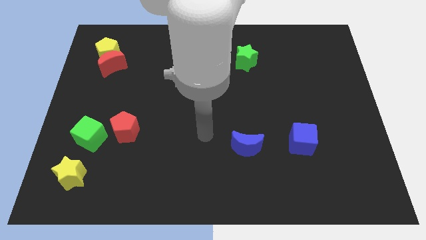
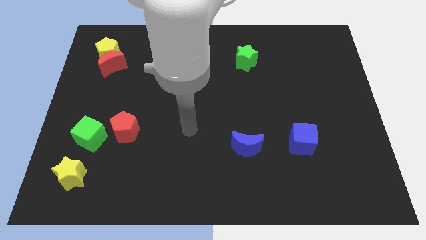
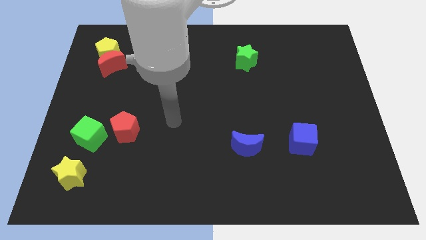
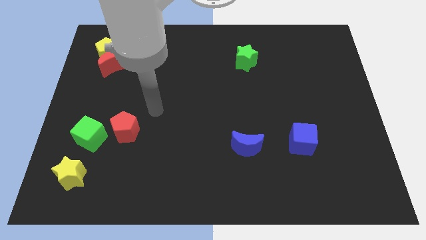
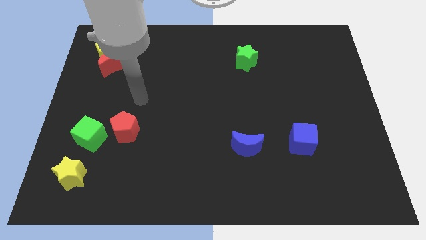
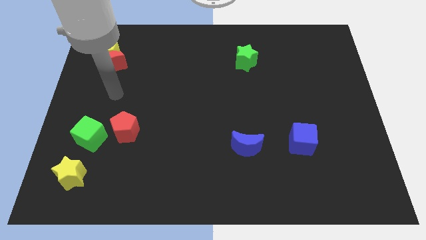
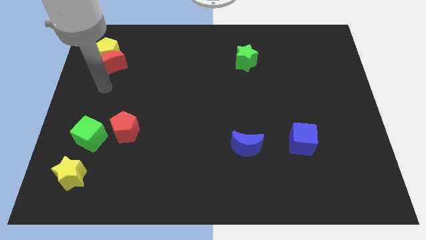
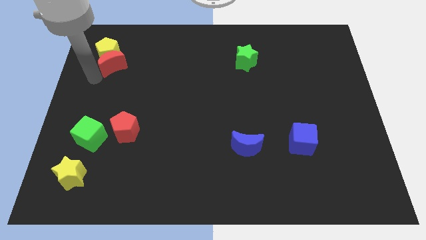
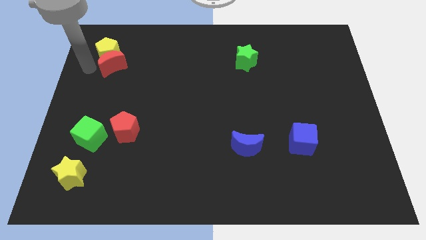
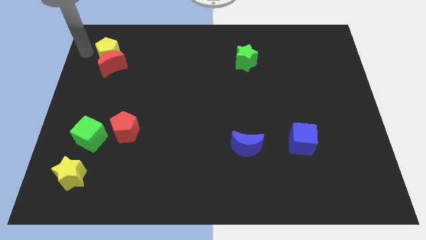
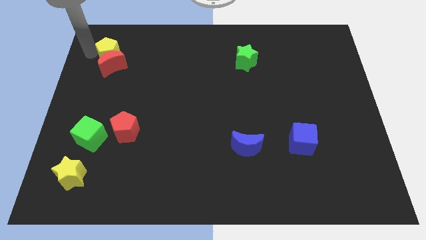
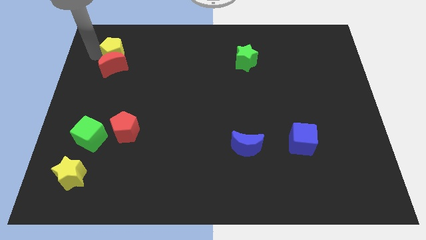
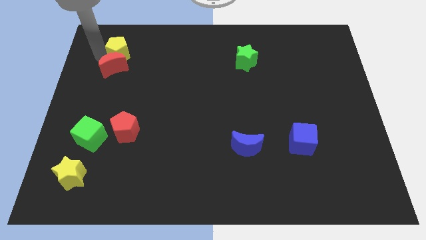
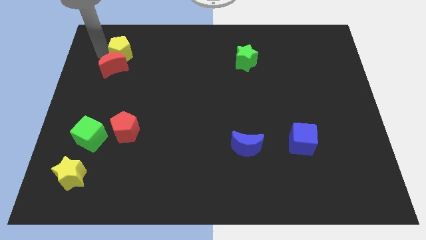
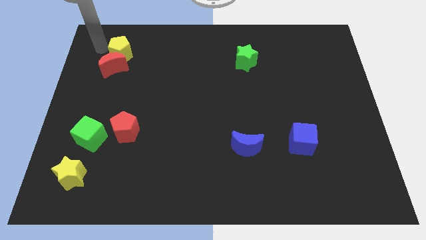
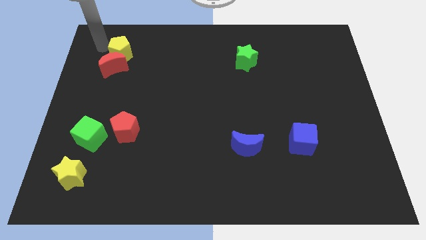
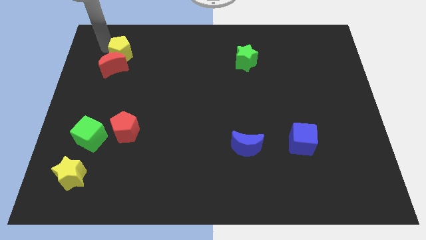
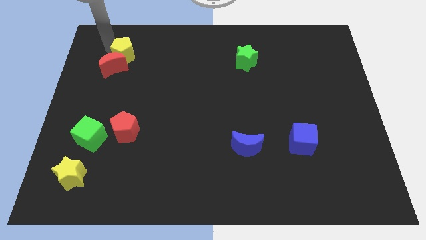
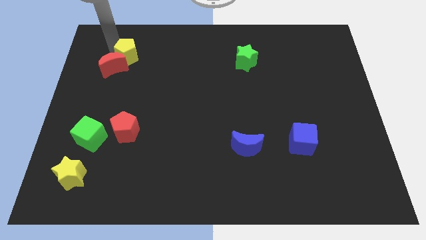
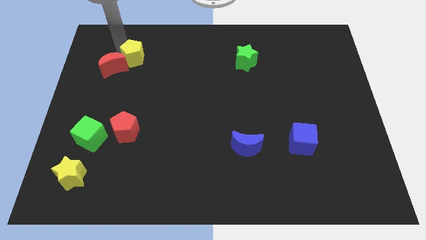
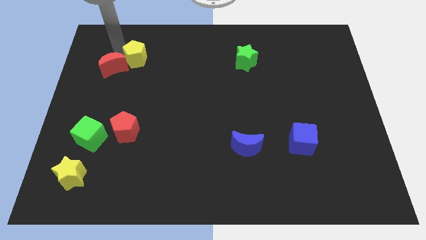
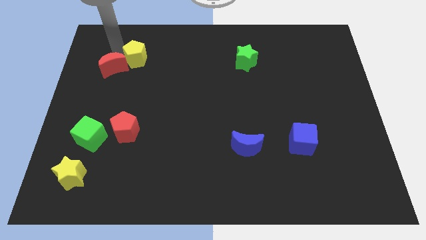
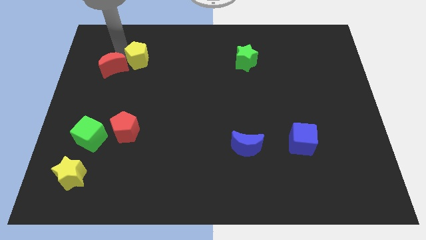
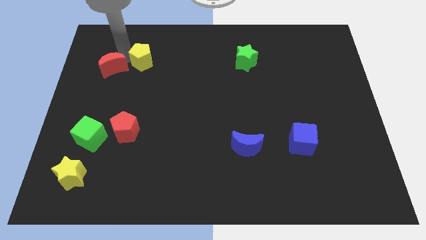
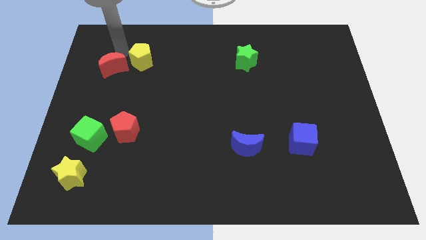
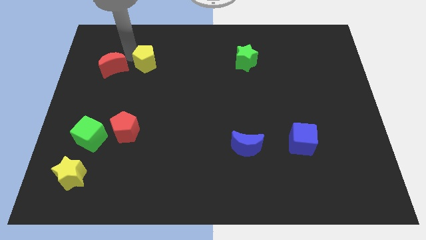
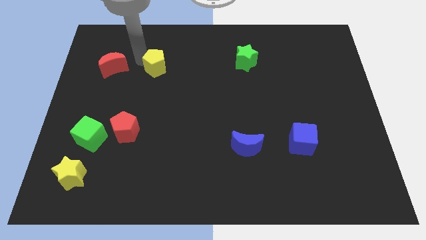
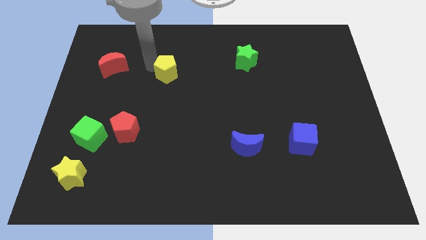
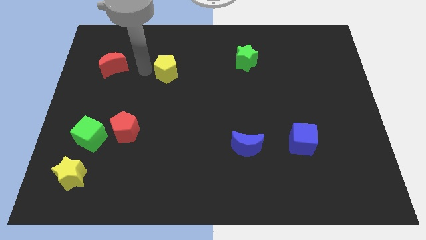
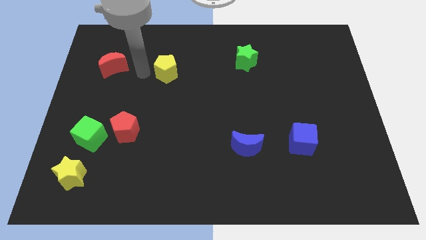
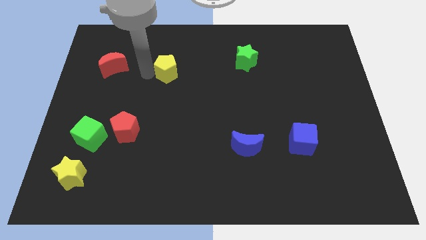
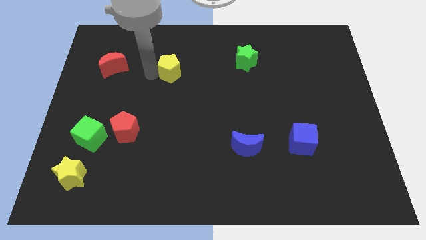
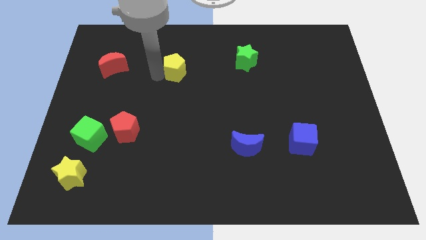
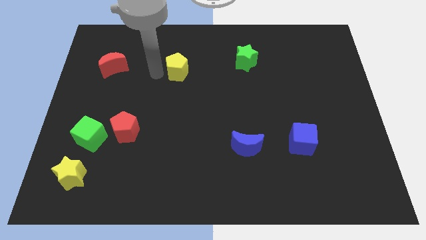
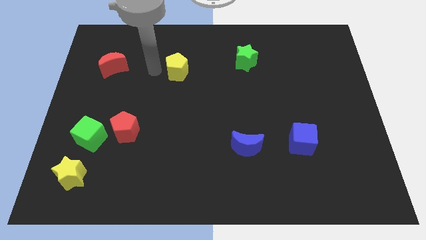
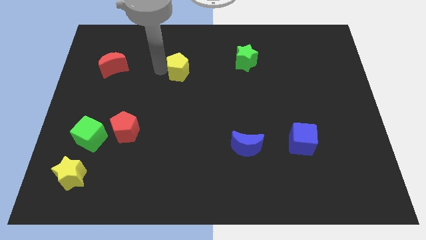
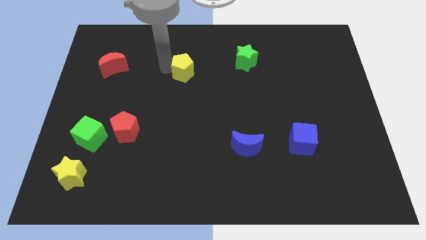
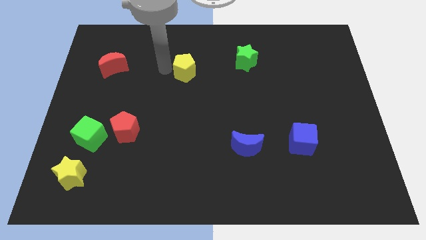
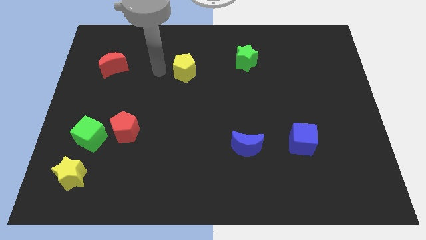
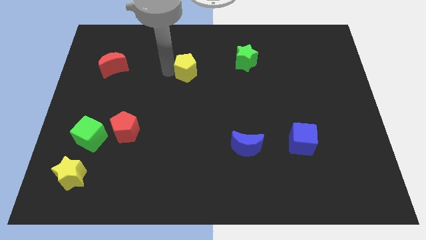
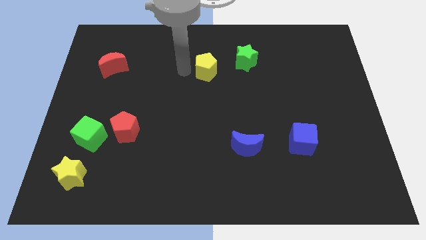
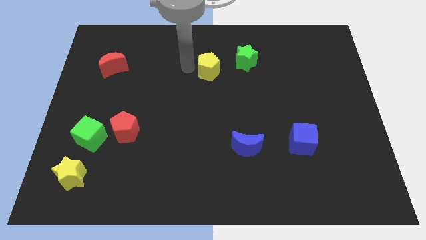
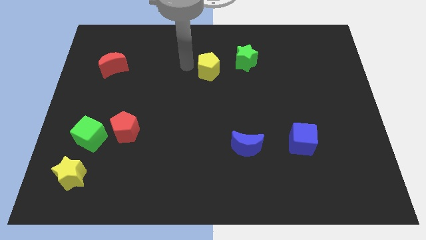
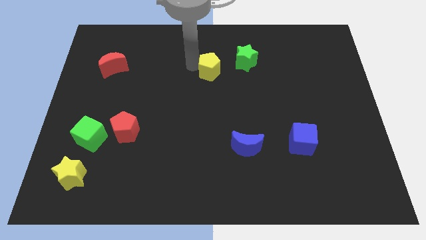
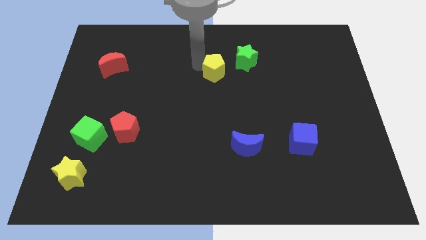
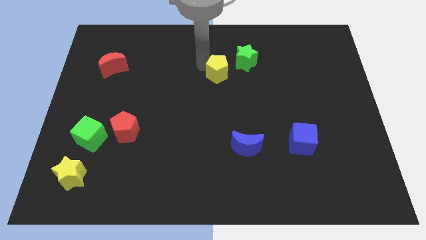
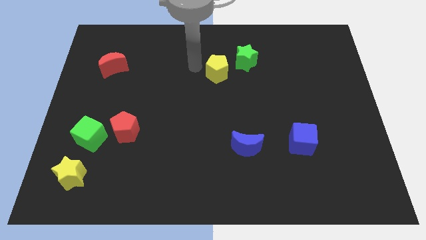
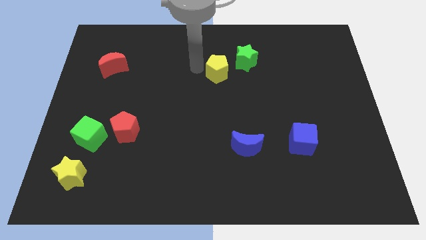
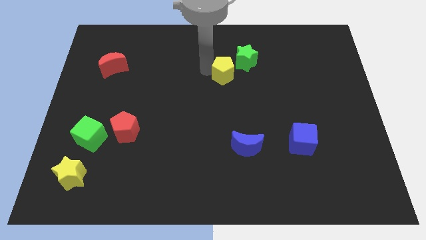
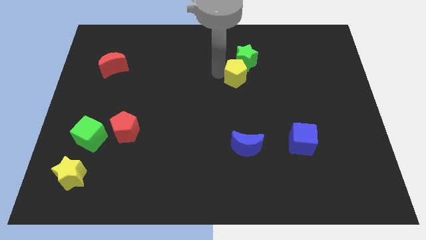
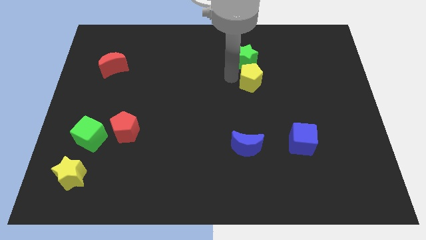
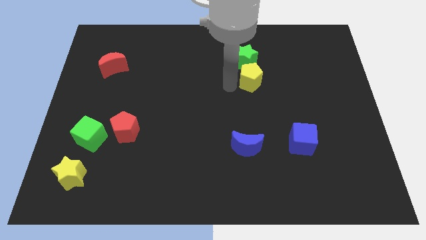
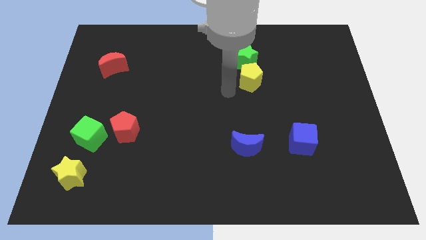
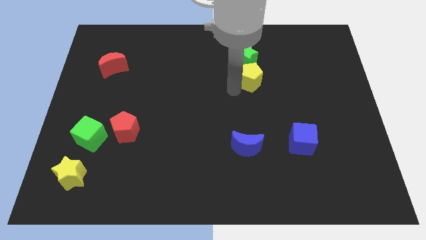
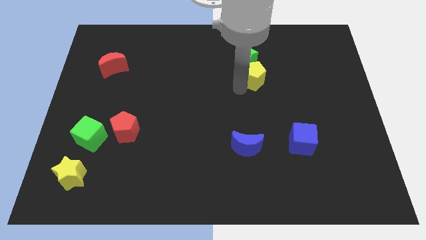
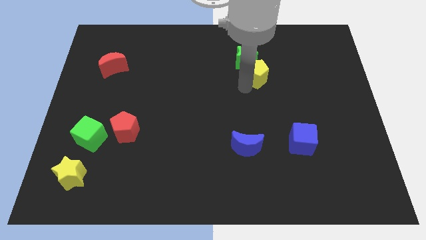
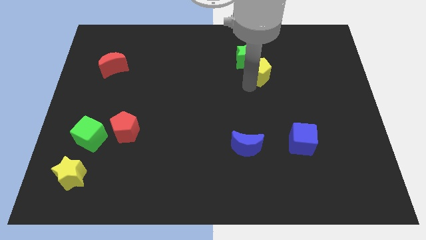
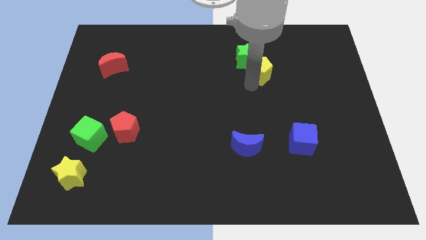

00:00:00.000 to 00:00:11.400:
put the yellow pentagon to the right of the green star

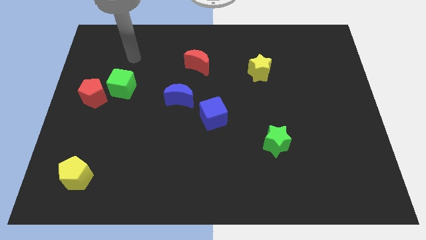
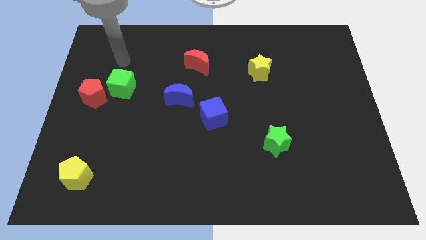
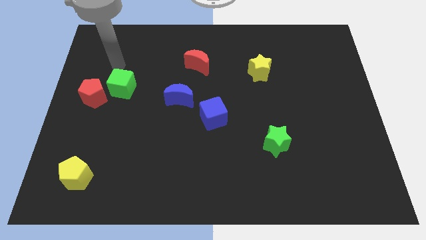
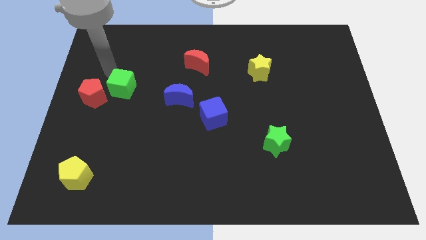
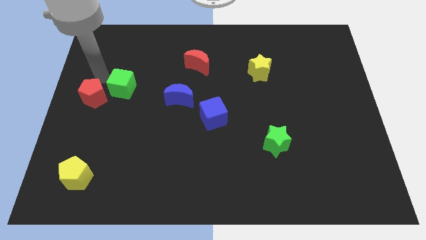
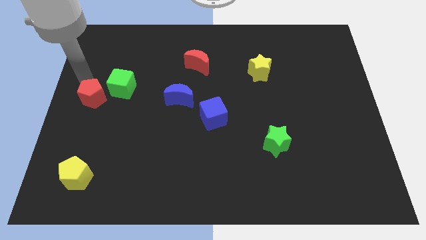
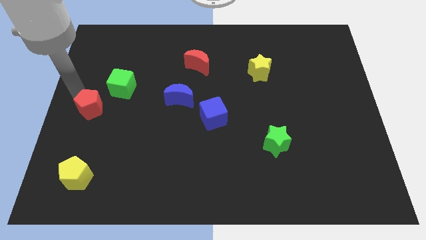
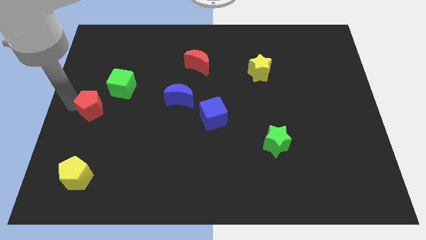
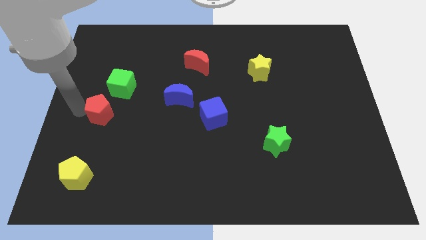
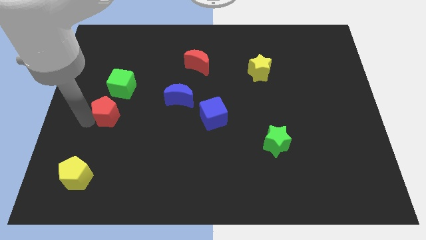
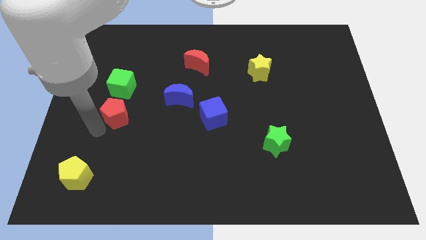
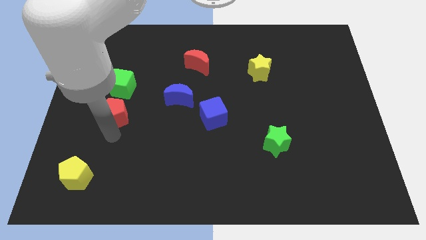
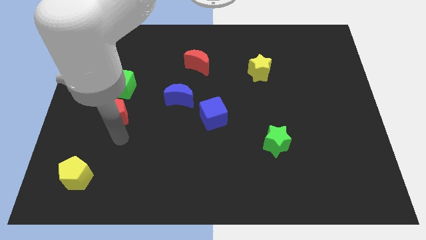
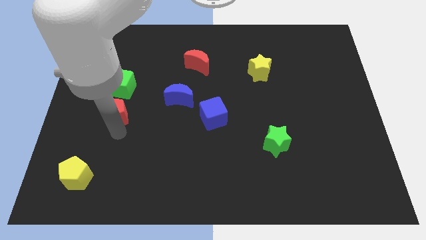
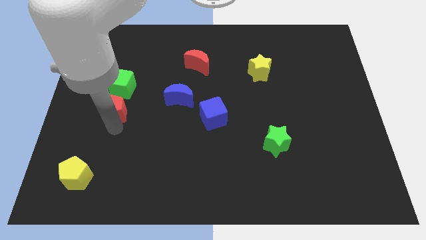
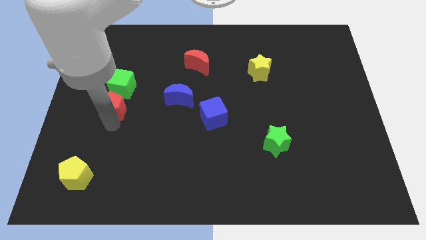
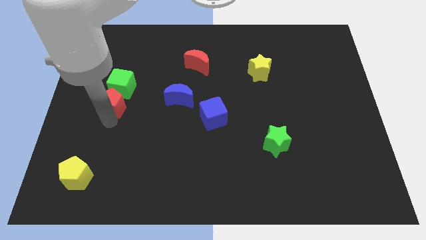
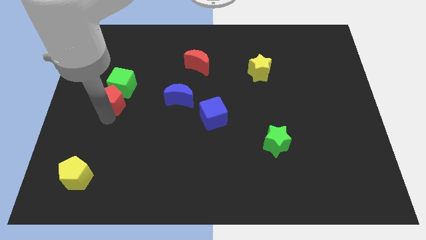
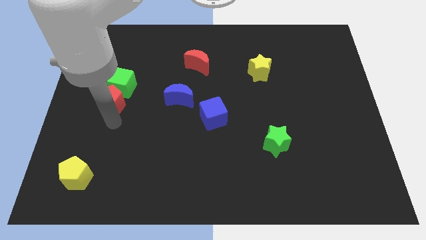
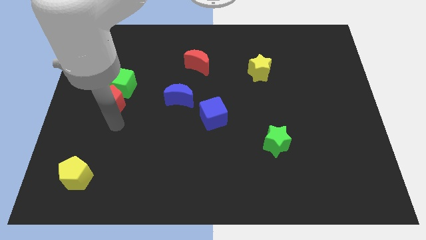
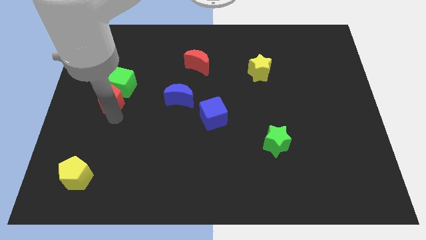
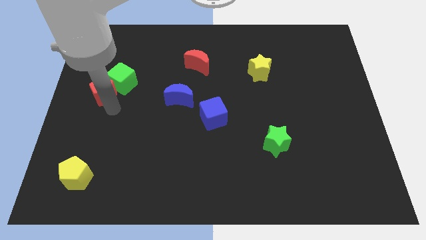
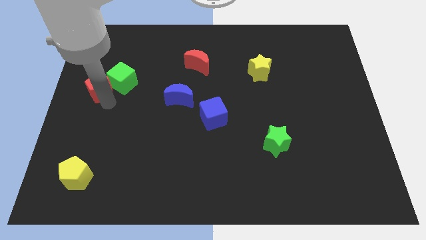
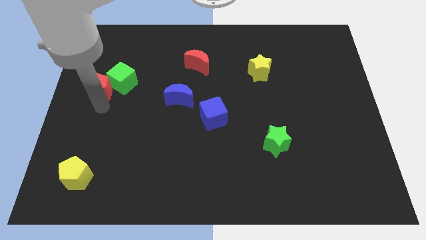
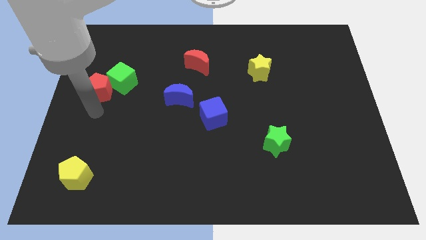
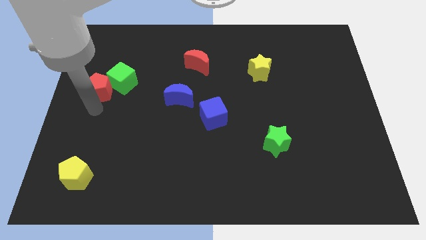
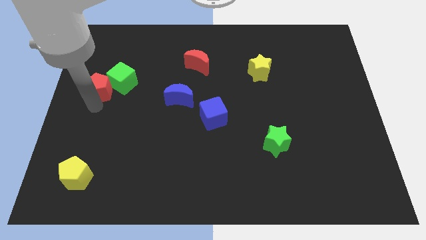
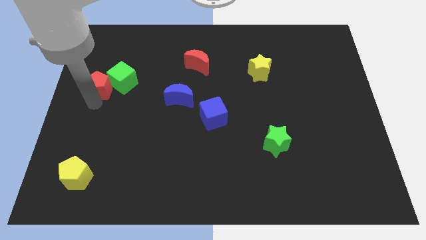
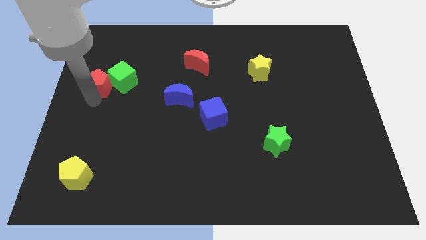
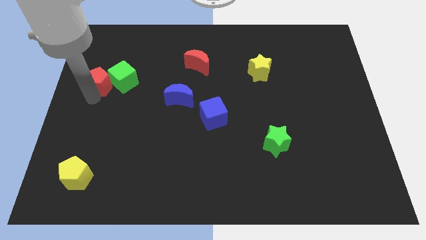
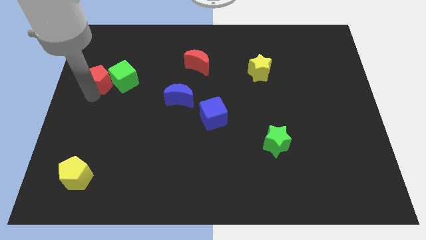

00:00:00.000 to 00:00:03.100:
slide the red pentagon to the top left side of the green cube
